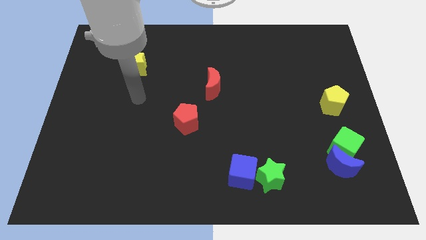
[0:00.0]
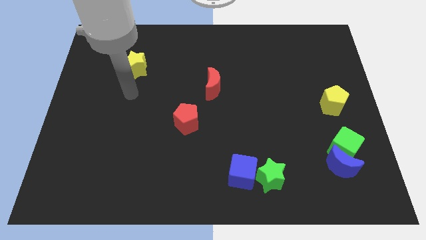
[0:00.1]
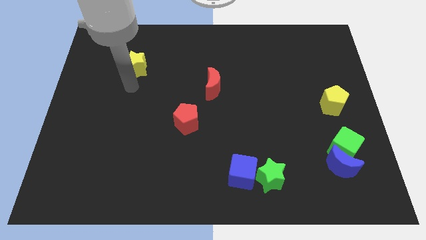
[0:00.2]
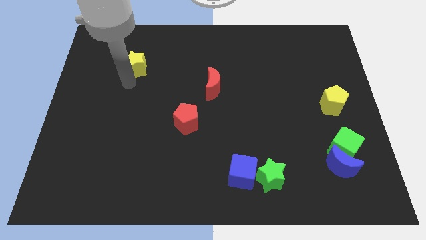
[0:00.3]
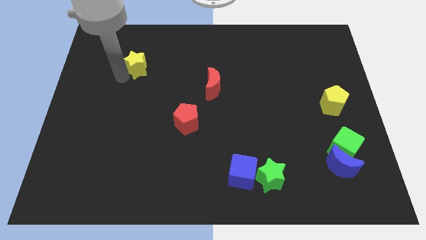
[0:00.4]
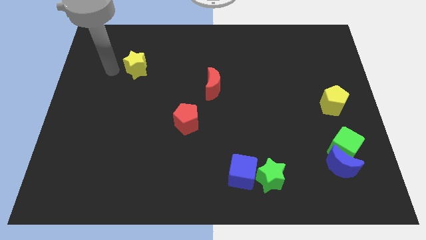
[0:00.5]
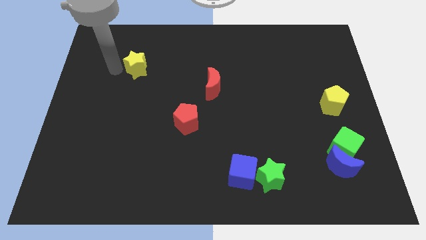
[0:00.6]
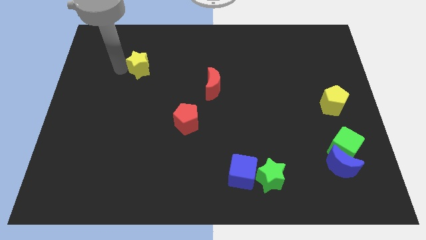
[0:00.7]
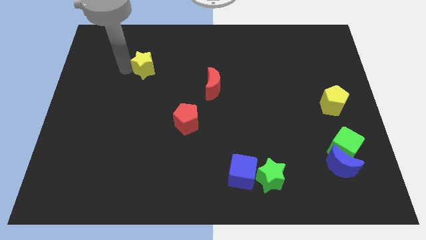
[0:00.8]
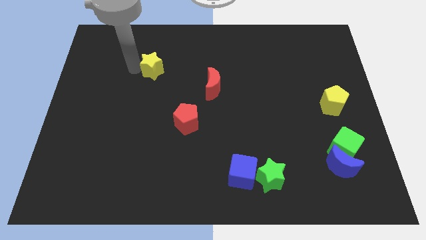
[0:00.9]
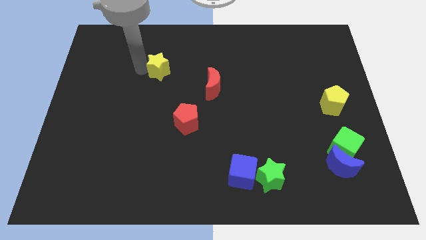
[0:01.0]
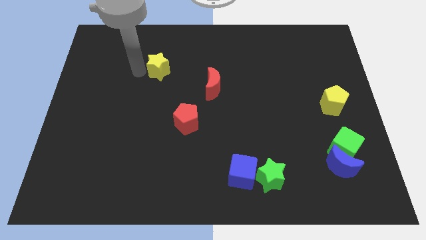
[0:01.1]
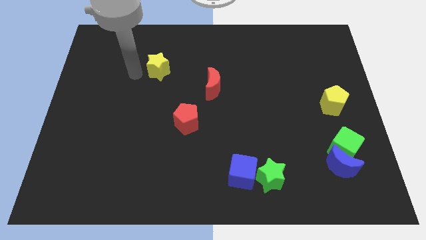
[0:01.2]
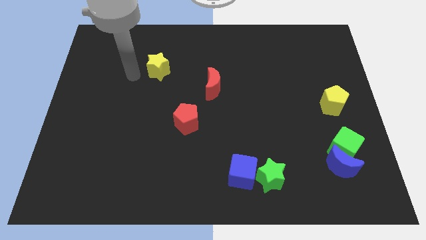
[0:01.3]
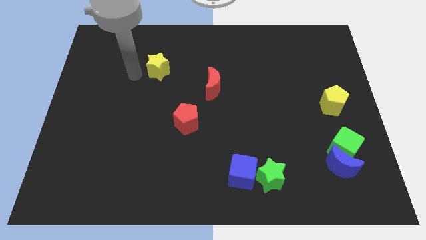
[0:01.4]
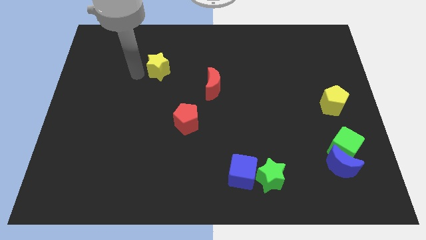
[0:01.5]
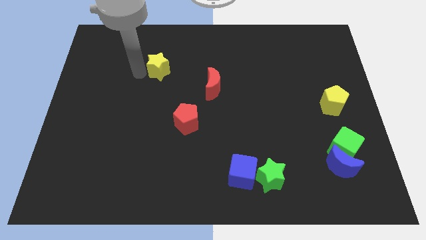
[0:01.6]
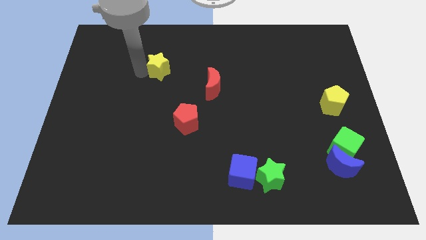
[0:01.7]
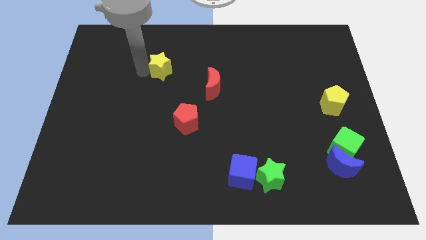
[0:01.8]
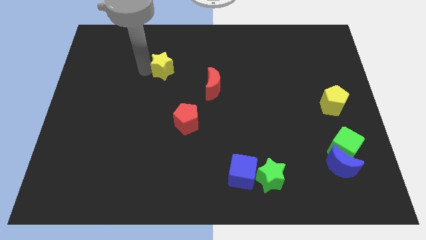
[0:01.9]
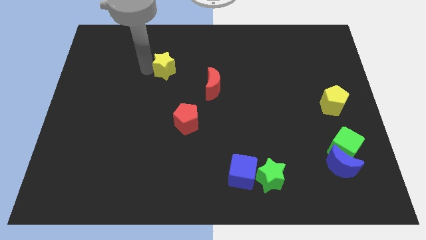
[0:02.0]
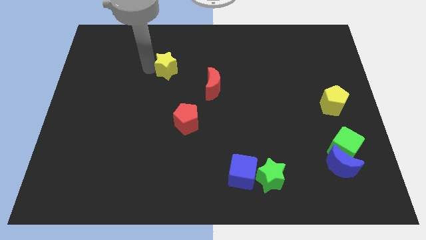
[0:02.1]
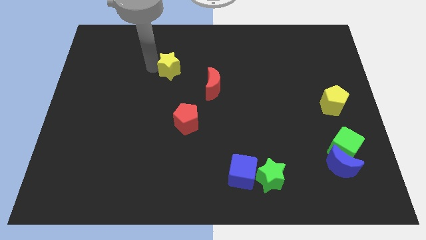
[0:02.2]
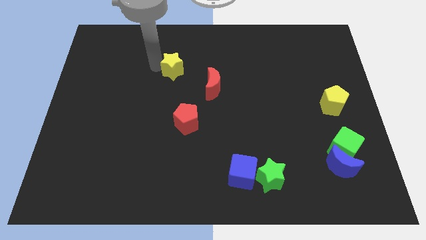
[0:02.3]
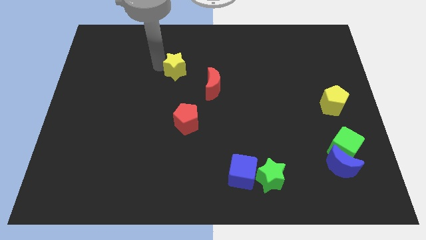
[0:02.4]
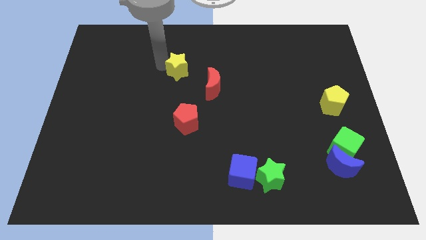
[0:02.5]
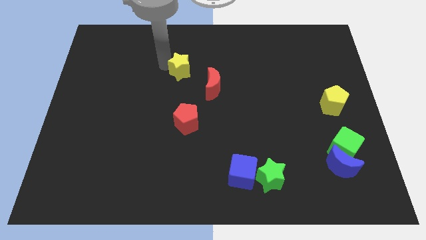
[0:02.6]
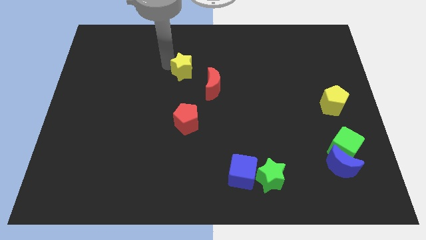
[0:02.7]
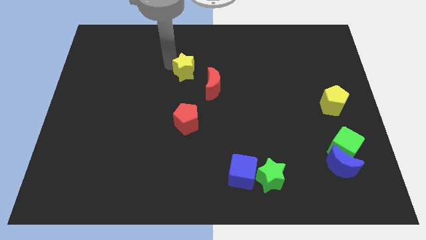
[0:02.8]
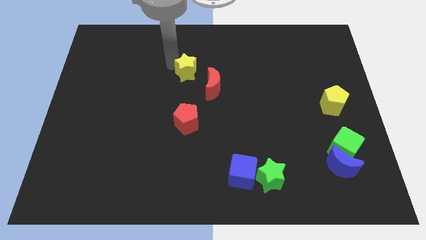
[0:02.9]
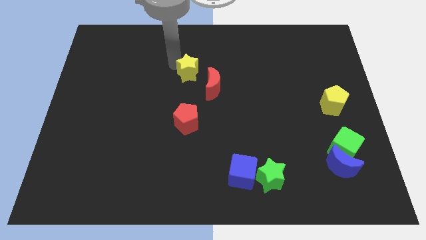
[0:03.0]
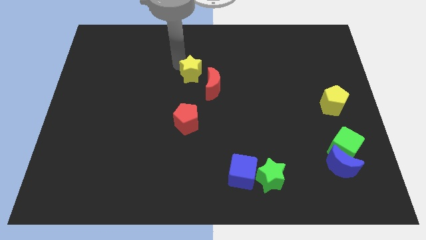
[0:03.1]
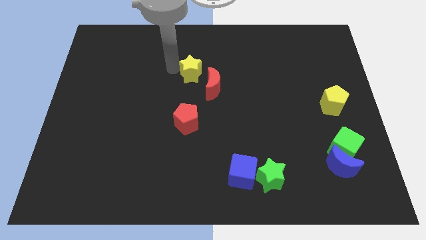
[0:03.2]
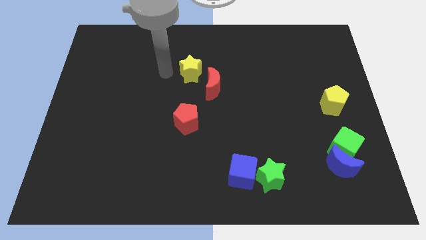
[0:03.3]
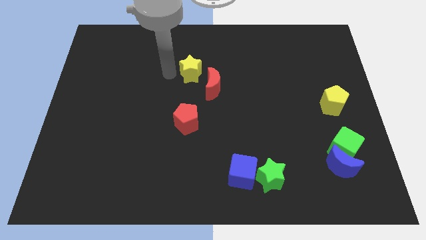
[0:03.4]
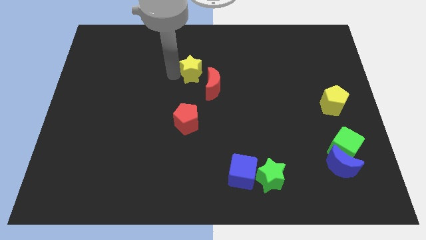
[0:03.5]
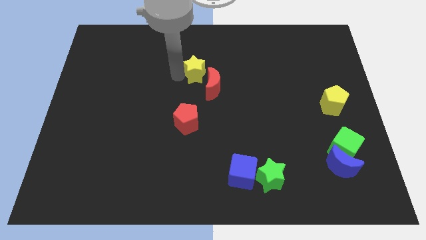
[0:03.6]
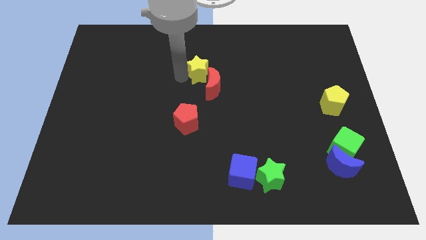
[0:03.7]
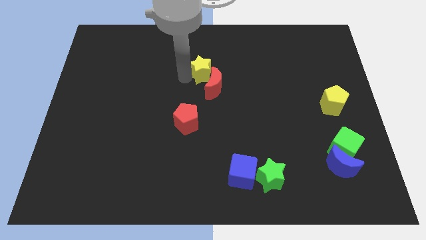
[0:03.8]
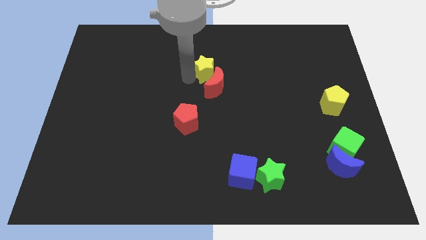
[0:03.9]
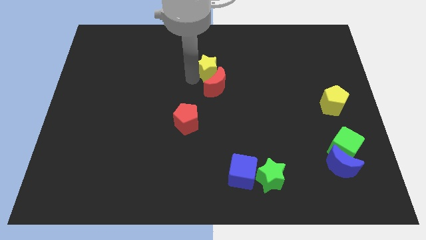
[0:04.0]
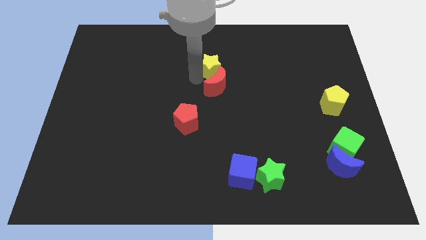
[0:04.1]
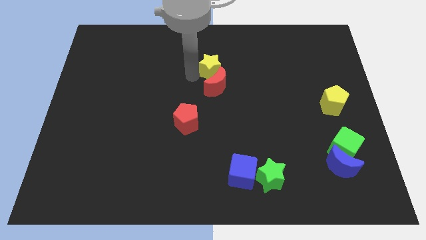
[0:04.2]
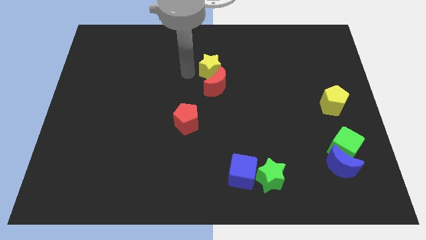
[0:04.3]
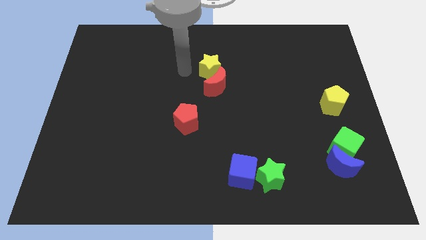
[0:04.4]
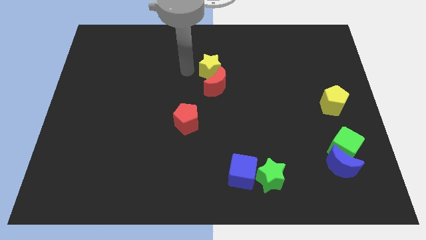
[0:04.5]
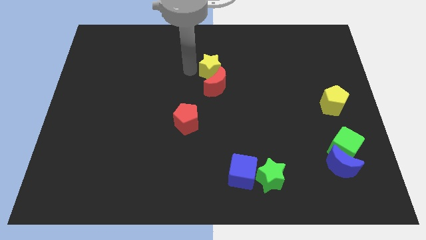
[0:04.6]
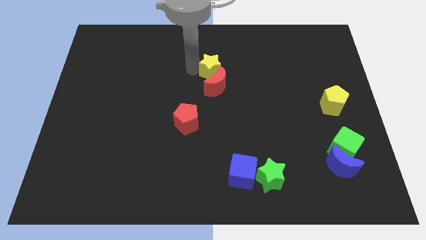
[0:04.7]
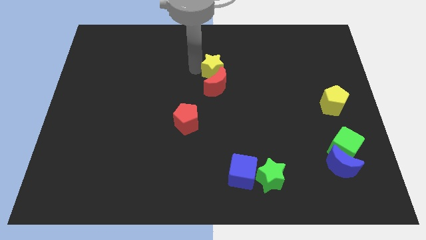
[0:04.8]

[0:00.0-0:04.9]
push the yellow star to the top right of the red moon

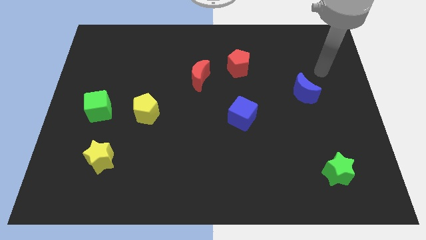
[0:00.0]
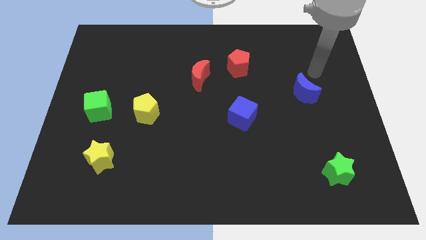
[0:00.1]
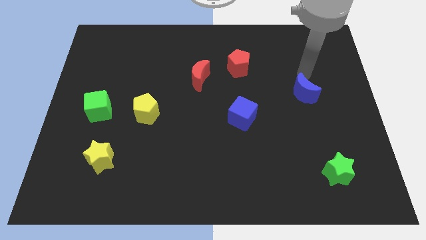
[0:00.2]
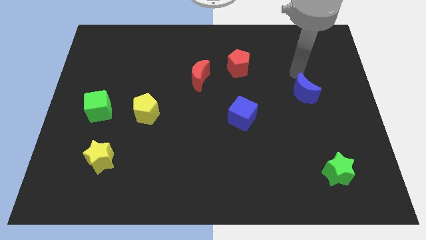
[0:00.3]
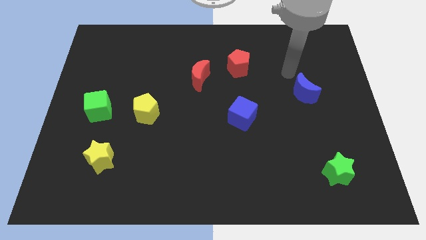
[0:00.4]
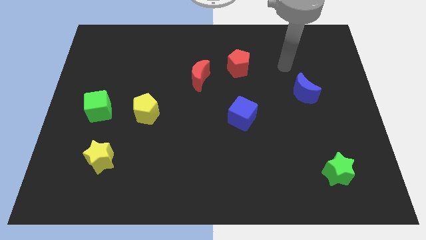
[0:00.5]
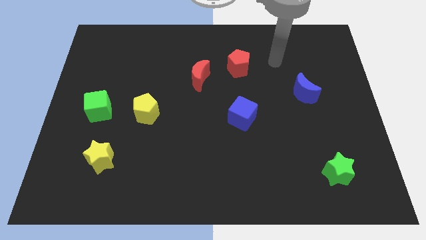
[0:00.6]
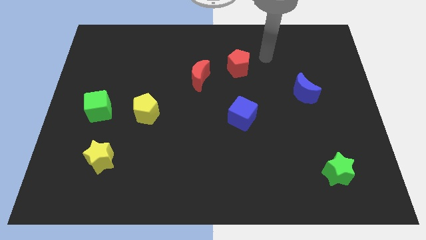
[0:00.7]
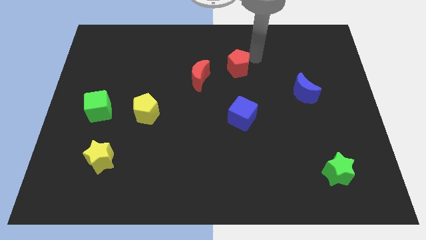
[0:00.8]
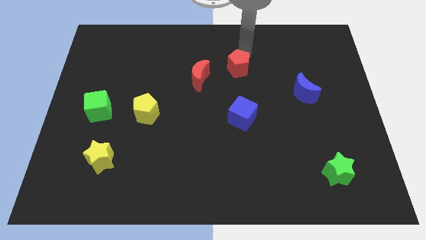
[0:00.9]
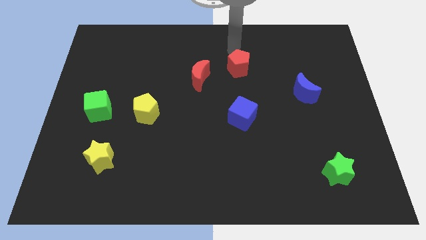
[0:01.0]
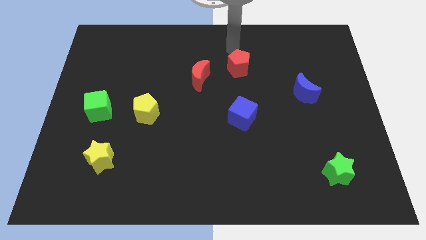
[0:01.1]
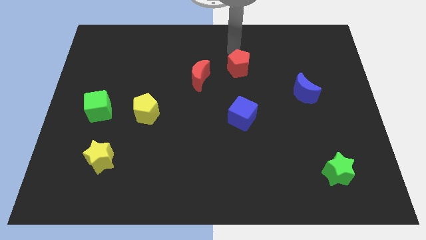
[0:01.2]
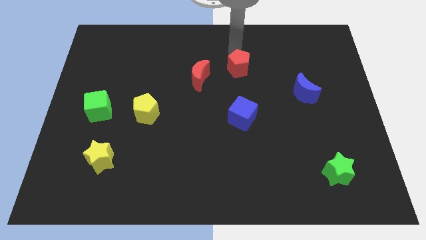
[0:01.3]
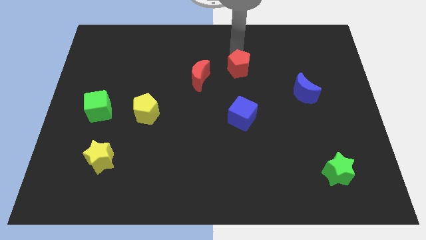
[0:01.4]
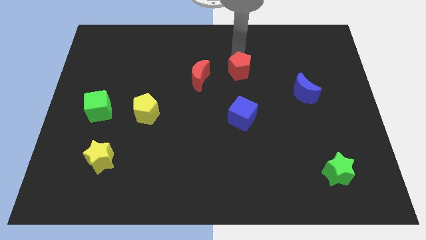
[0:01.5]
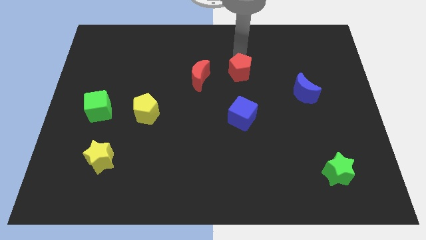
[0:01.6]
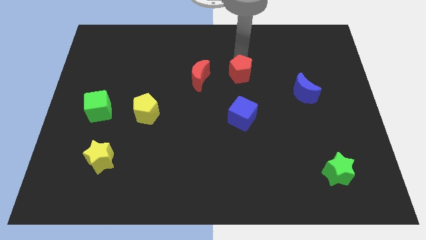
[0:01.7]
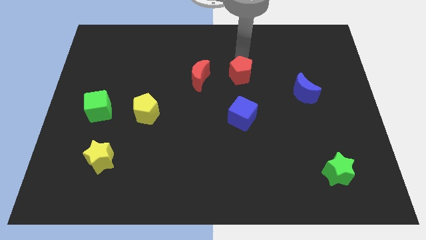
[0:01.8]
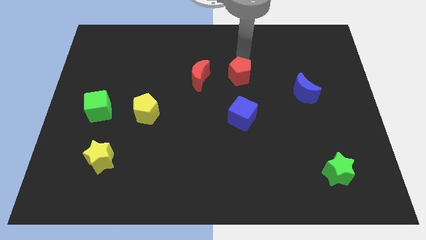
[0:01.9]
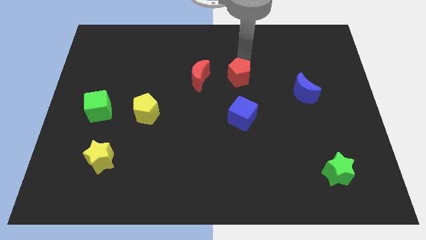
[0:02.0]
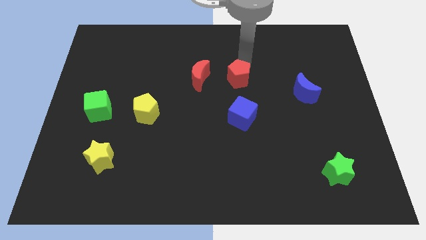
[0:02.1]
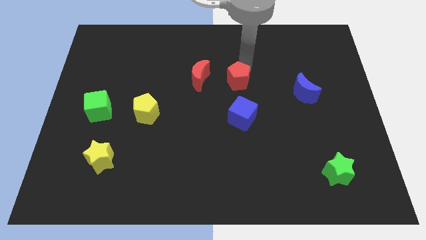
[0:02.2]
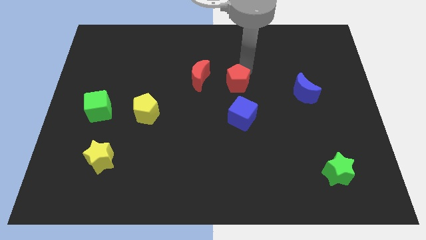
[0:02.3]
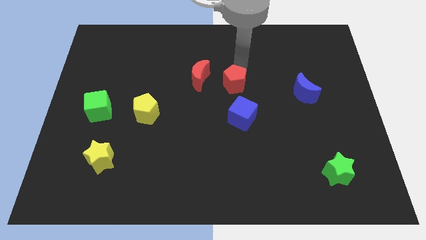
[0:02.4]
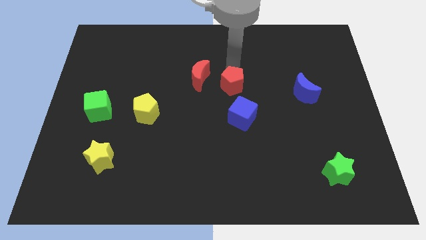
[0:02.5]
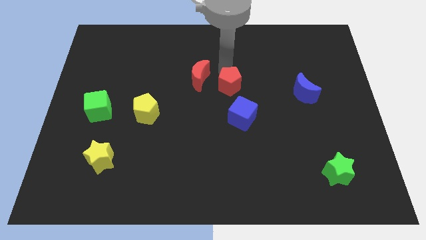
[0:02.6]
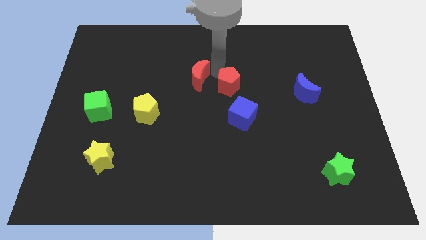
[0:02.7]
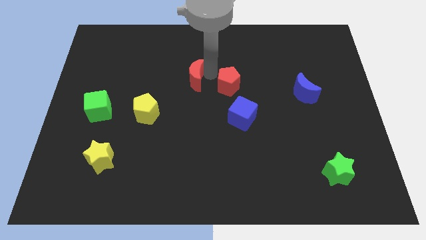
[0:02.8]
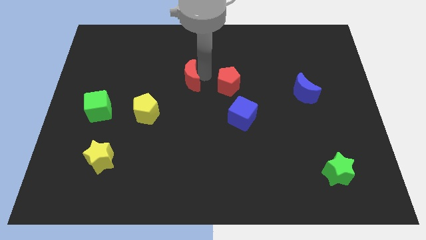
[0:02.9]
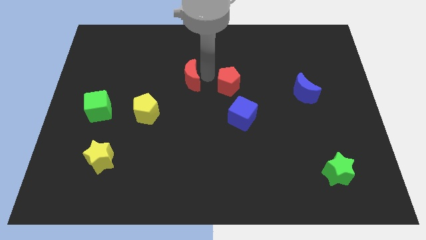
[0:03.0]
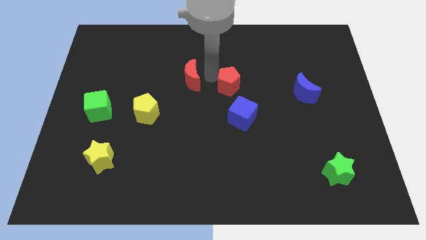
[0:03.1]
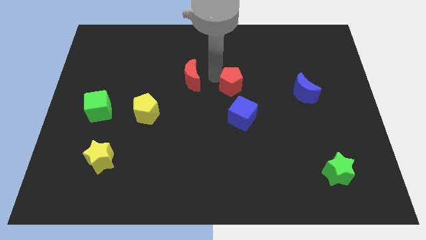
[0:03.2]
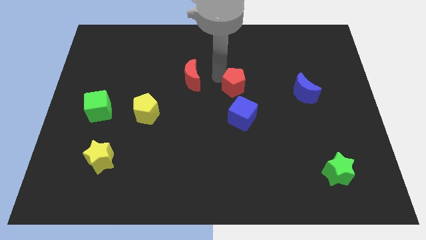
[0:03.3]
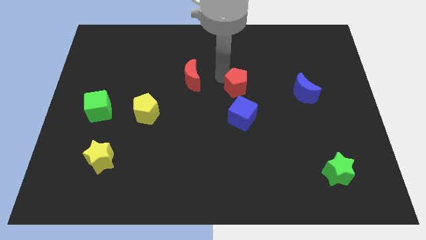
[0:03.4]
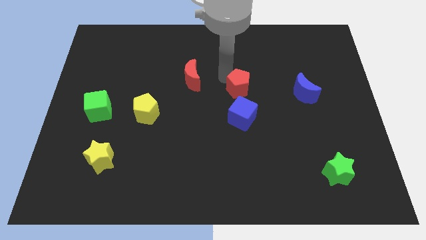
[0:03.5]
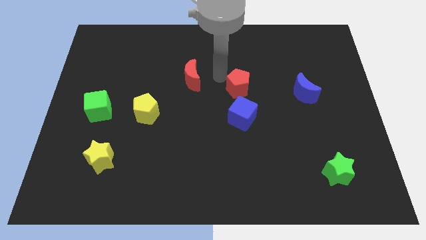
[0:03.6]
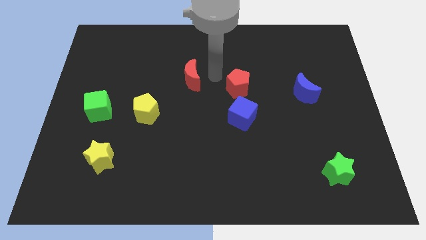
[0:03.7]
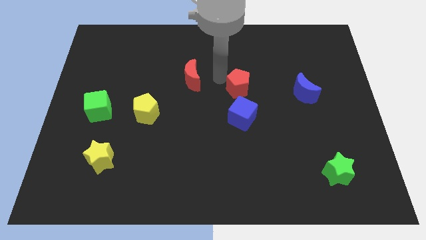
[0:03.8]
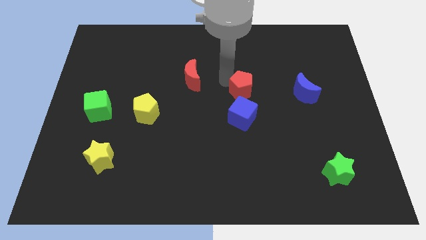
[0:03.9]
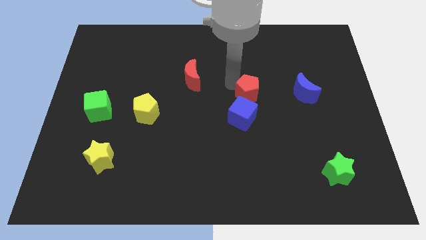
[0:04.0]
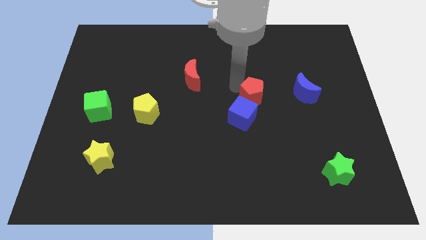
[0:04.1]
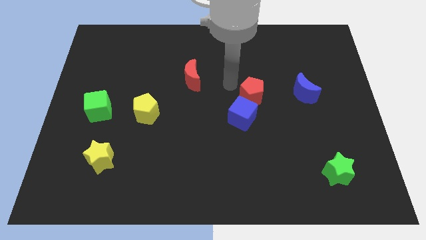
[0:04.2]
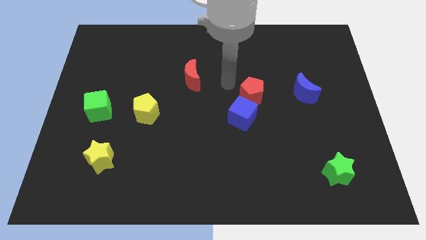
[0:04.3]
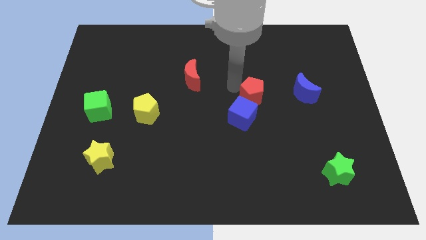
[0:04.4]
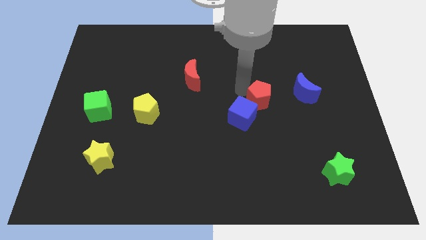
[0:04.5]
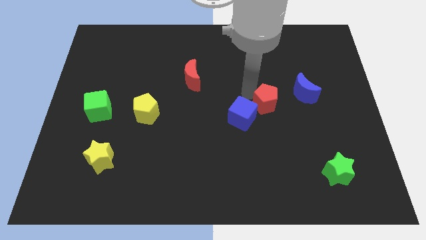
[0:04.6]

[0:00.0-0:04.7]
push the red pentagon to the bottom left side of the blue moon
